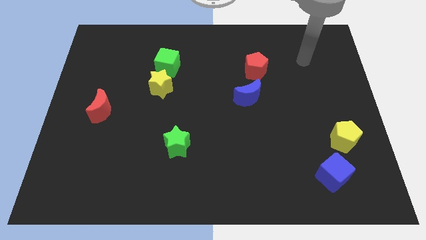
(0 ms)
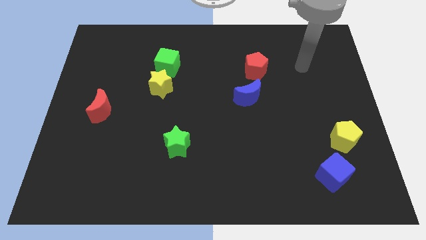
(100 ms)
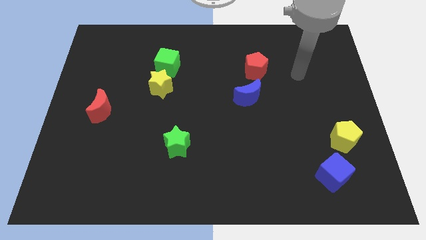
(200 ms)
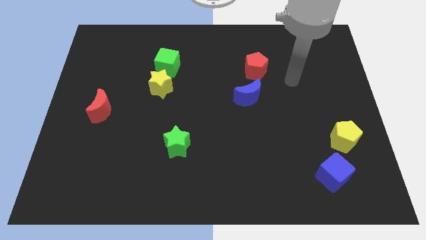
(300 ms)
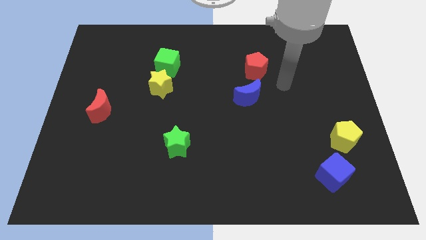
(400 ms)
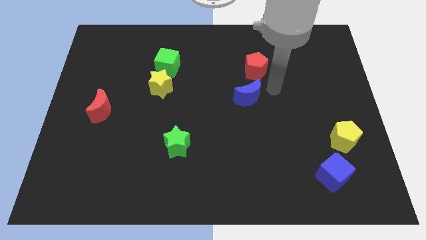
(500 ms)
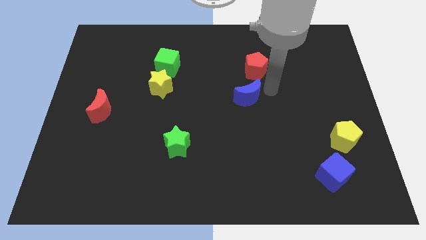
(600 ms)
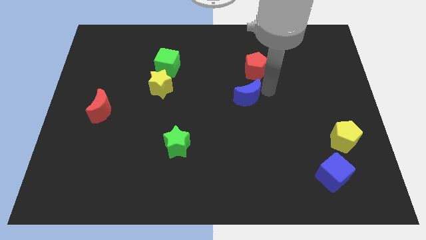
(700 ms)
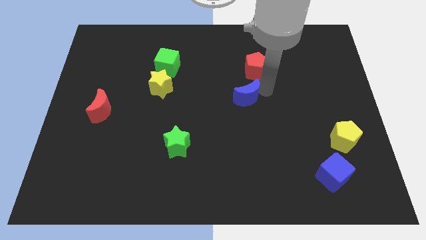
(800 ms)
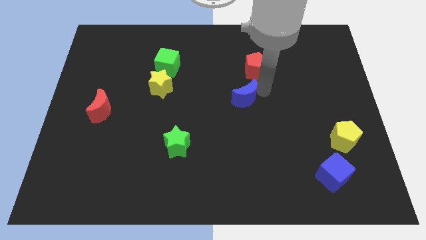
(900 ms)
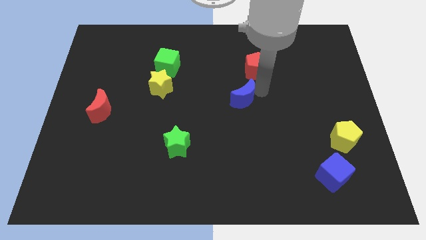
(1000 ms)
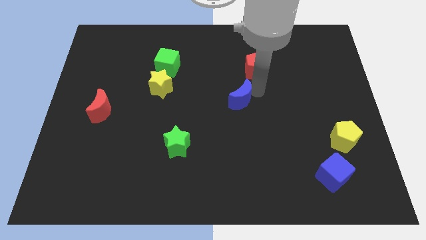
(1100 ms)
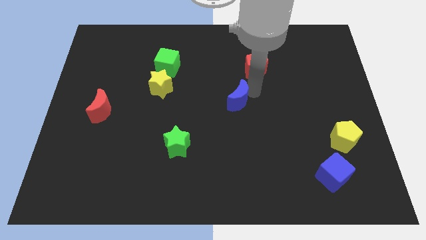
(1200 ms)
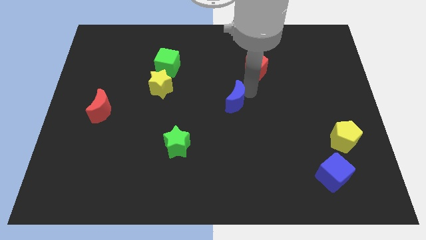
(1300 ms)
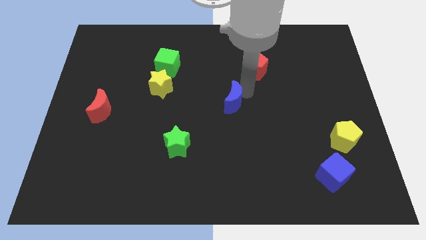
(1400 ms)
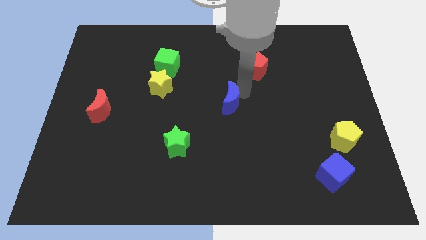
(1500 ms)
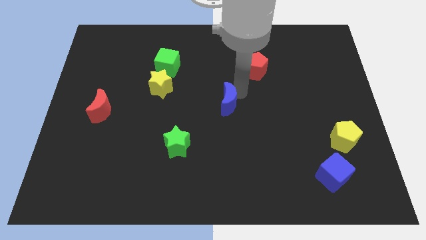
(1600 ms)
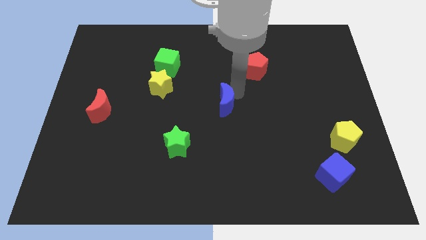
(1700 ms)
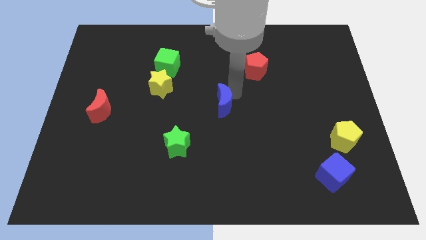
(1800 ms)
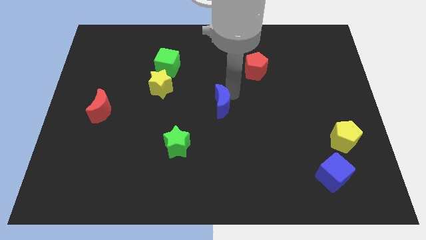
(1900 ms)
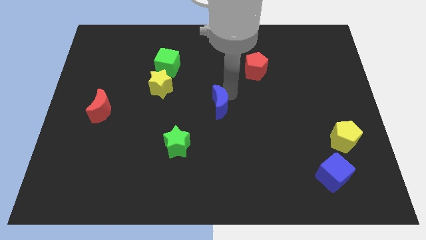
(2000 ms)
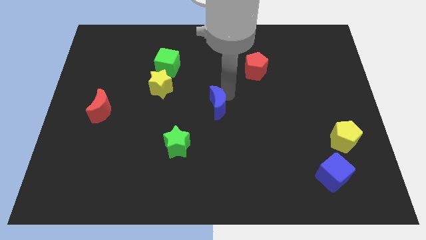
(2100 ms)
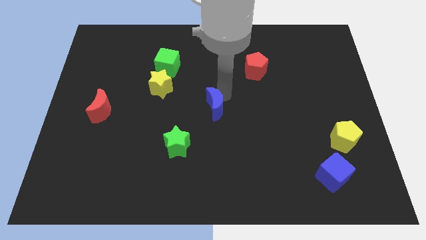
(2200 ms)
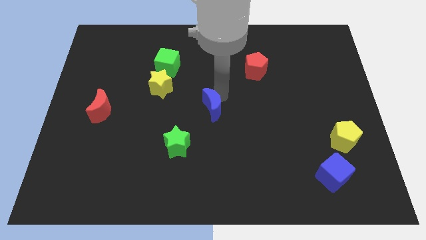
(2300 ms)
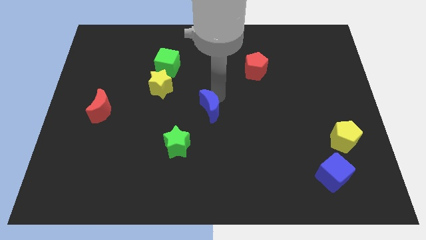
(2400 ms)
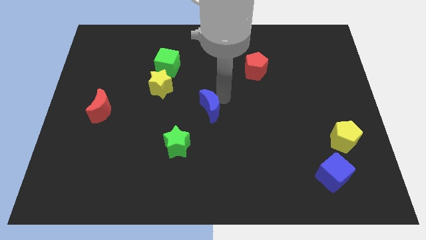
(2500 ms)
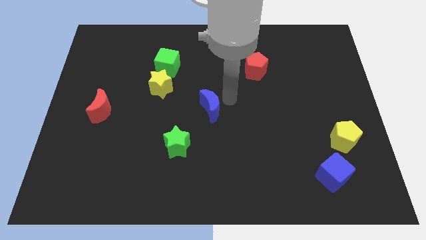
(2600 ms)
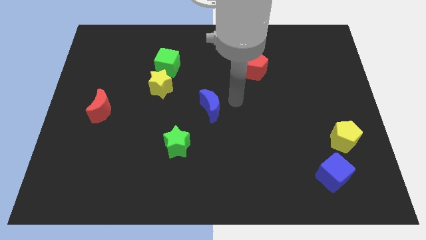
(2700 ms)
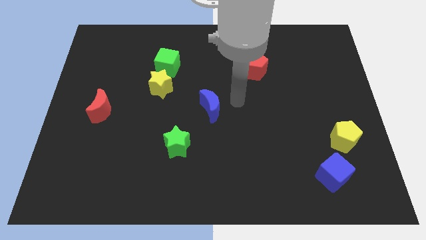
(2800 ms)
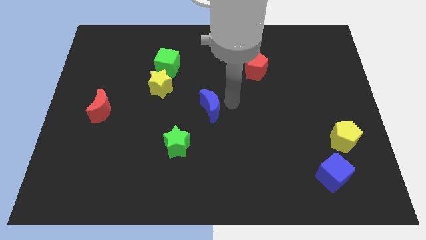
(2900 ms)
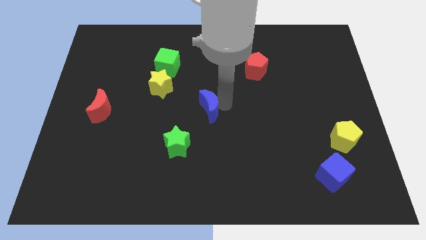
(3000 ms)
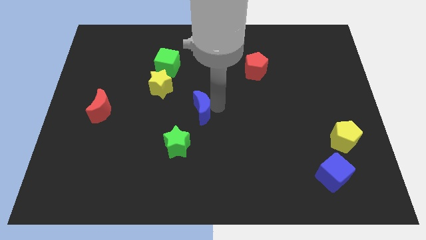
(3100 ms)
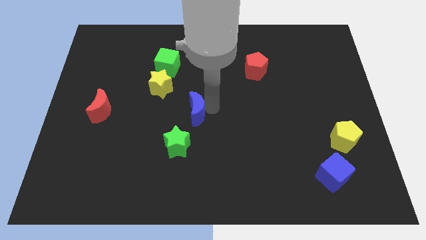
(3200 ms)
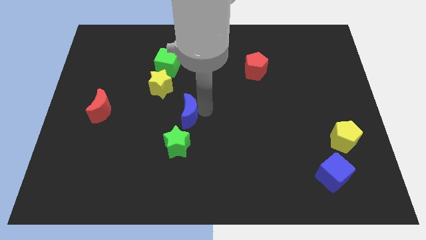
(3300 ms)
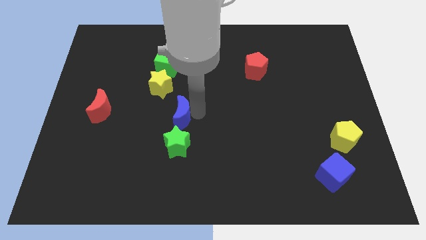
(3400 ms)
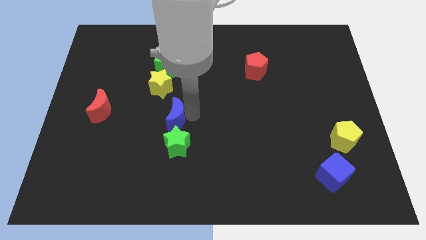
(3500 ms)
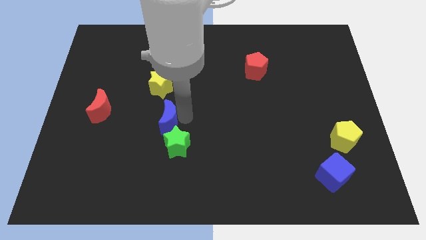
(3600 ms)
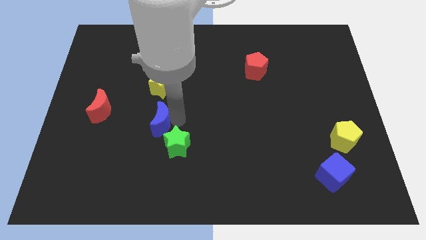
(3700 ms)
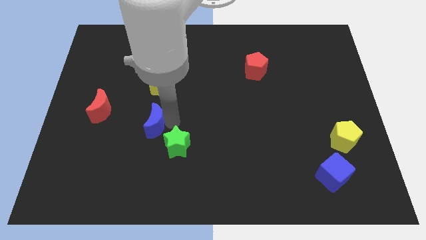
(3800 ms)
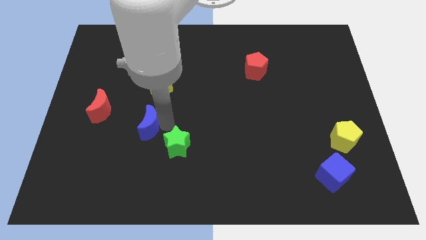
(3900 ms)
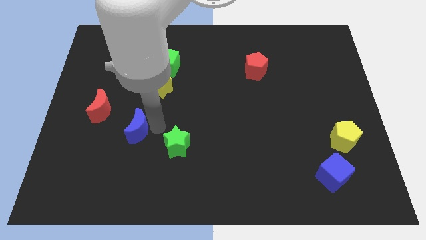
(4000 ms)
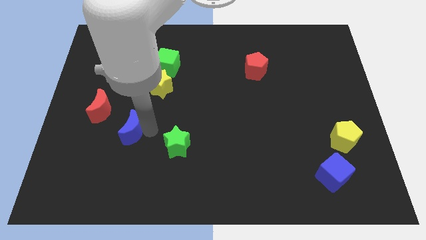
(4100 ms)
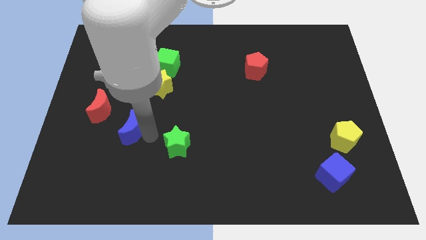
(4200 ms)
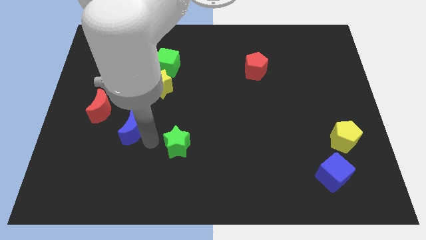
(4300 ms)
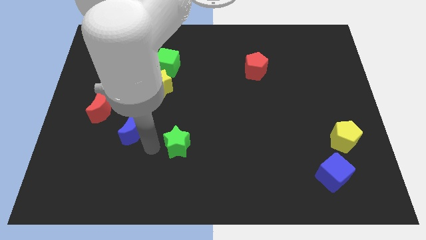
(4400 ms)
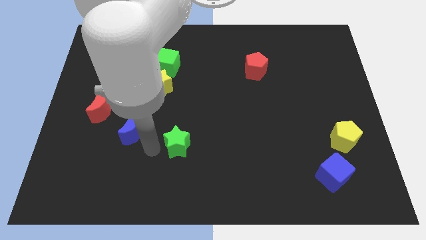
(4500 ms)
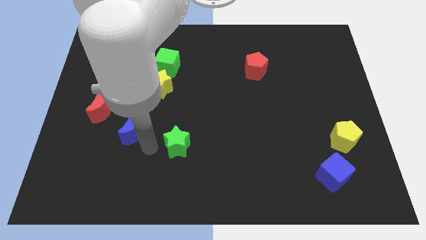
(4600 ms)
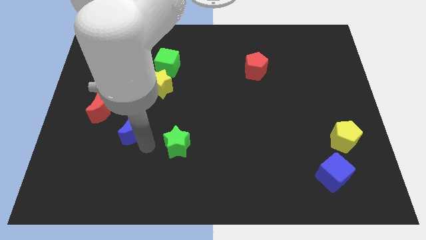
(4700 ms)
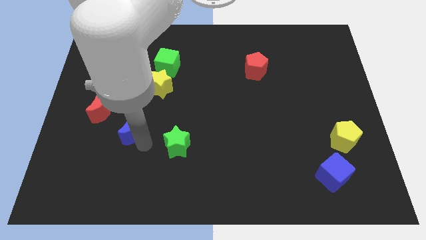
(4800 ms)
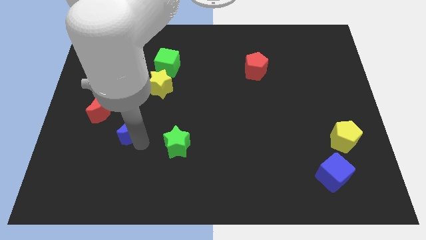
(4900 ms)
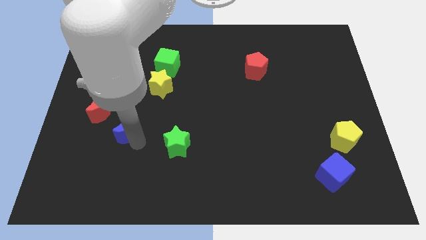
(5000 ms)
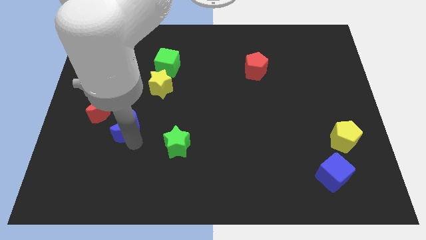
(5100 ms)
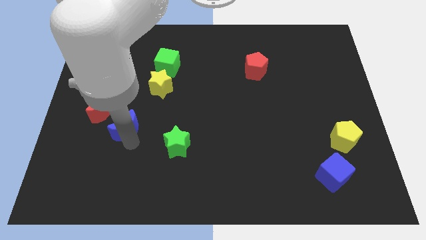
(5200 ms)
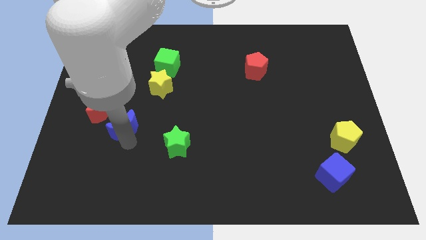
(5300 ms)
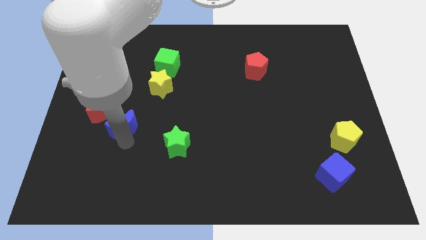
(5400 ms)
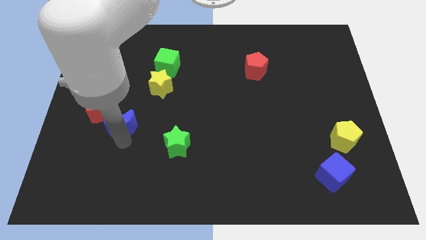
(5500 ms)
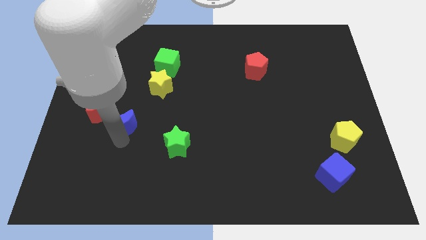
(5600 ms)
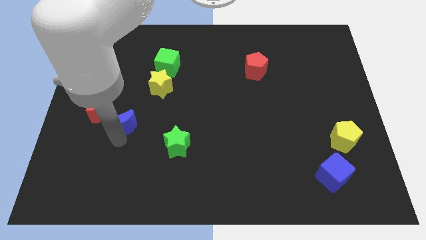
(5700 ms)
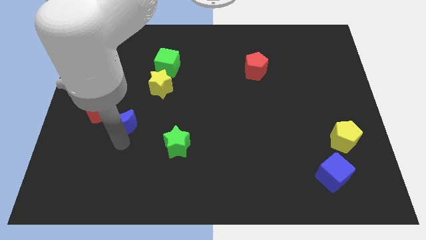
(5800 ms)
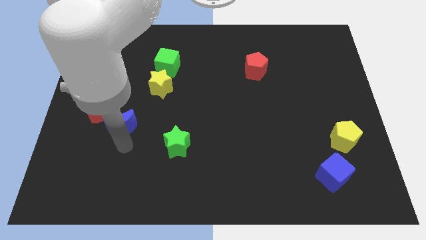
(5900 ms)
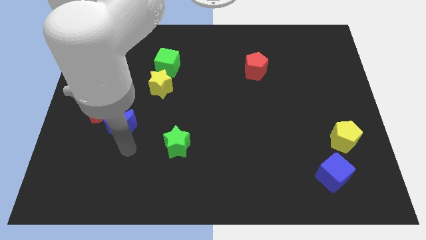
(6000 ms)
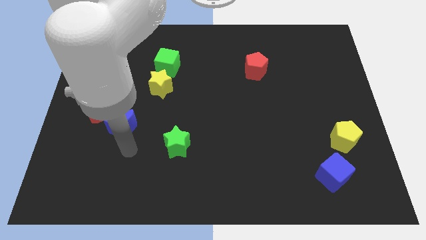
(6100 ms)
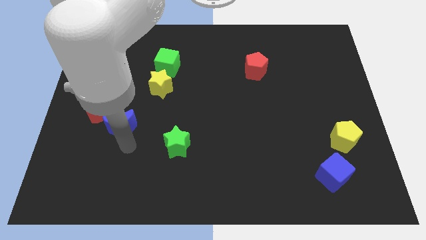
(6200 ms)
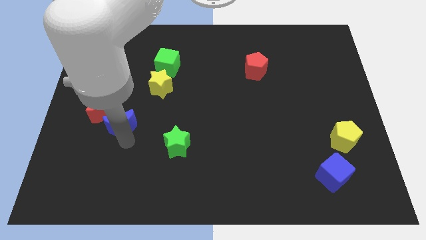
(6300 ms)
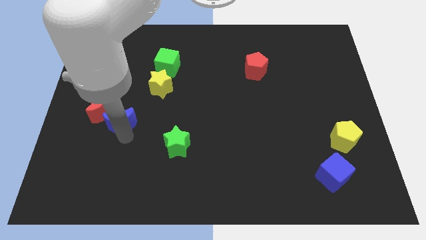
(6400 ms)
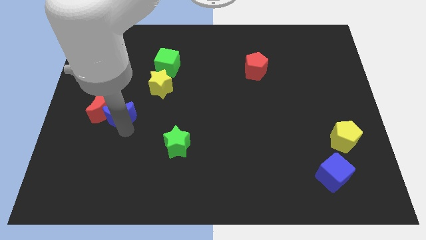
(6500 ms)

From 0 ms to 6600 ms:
move the blue moon to the red moon

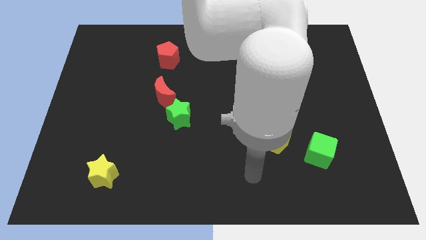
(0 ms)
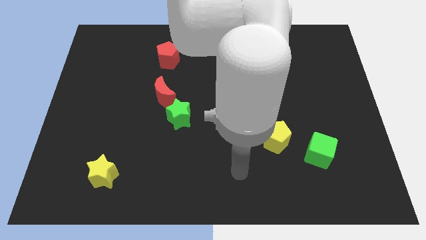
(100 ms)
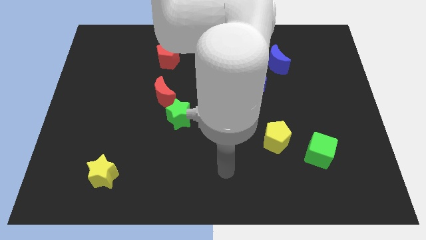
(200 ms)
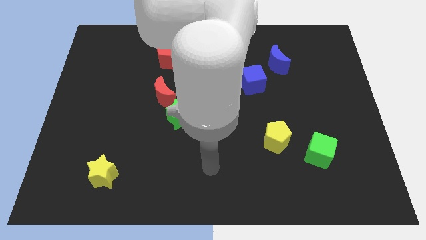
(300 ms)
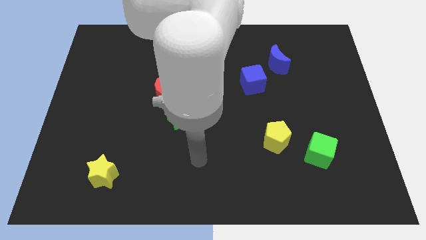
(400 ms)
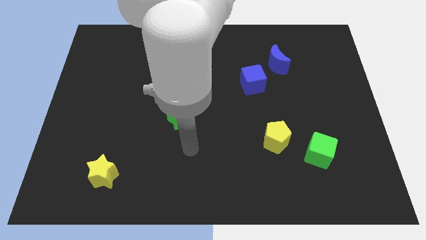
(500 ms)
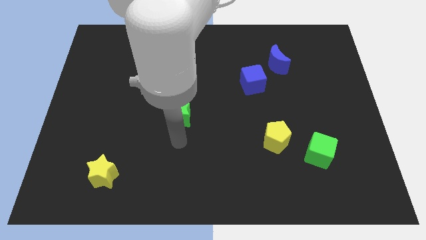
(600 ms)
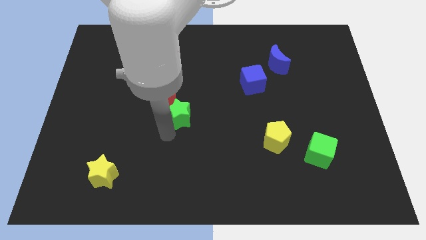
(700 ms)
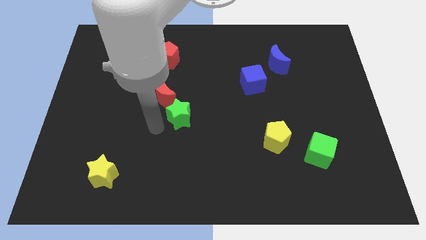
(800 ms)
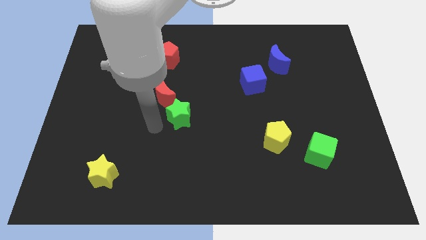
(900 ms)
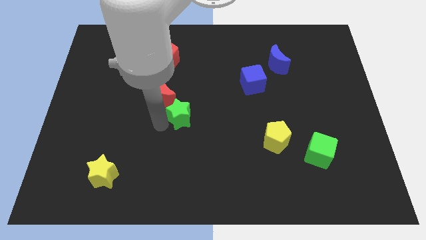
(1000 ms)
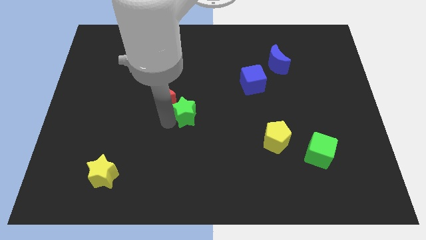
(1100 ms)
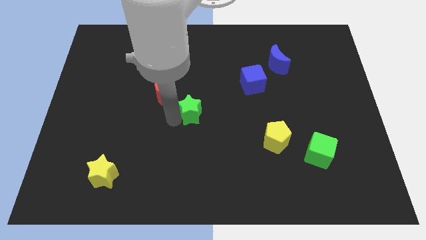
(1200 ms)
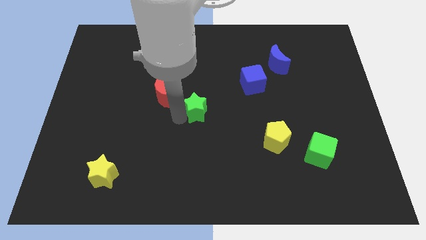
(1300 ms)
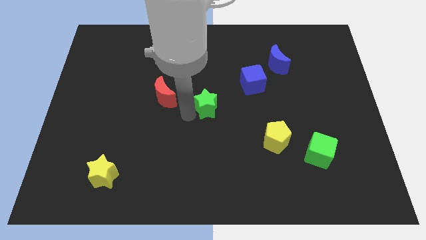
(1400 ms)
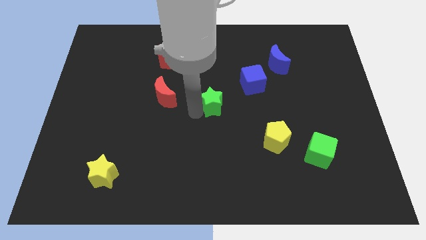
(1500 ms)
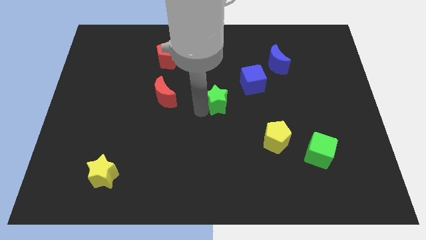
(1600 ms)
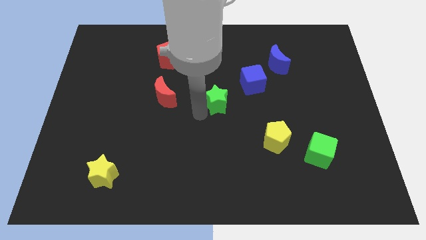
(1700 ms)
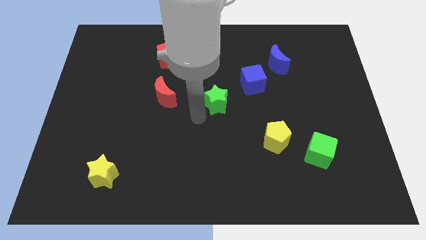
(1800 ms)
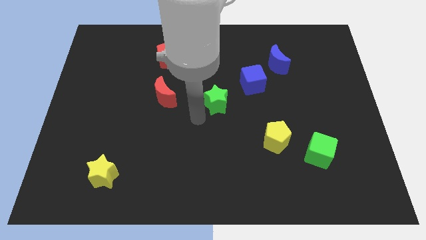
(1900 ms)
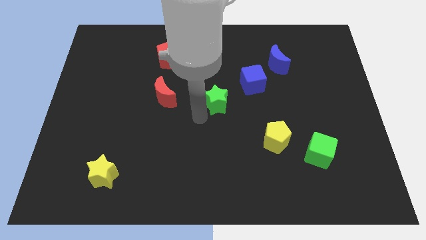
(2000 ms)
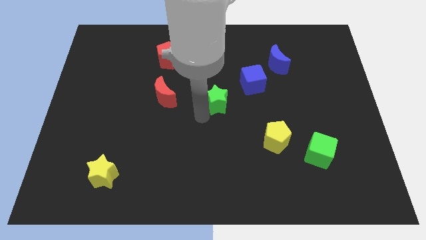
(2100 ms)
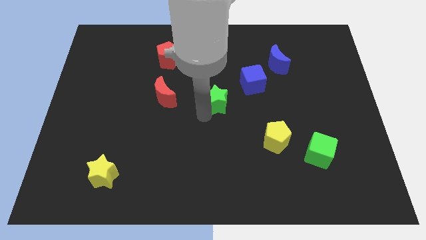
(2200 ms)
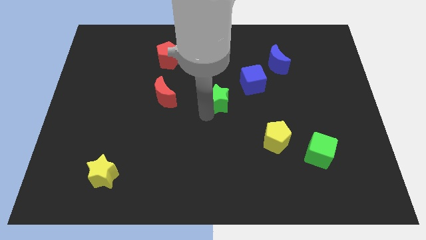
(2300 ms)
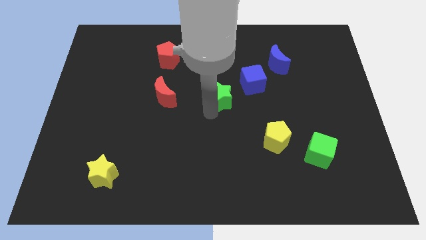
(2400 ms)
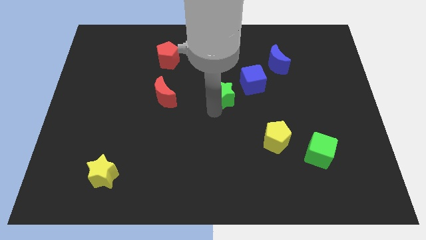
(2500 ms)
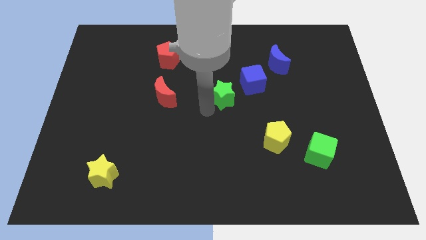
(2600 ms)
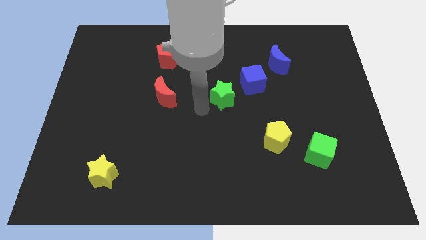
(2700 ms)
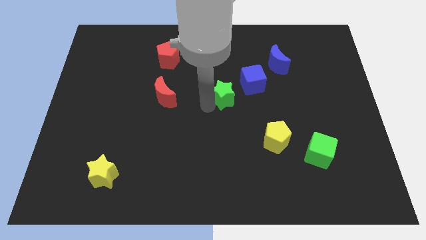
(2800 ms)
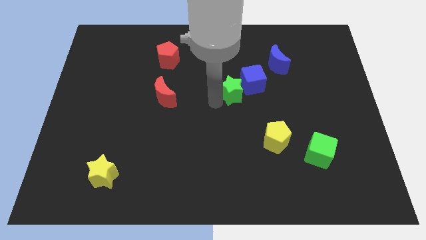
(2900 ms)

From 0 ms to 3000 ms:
slide the green star next to the blue cube
